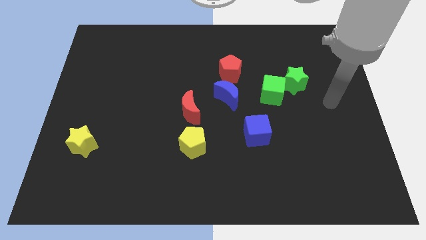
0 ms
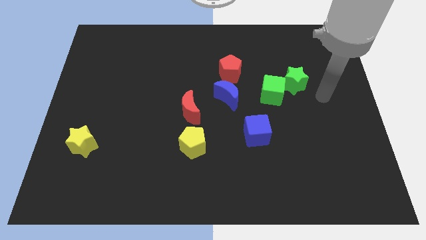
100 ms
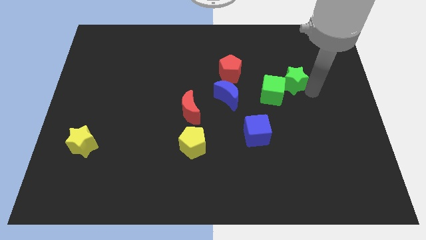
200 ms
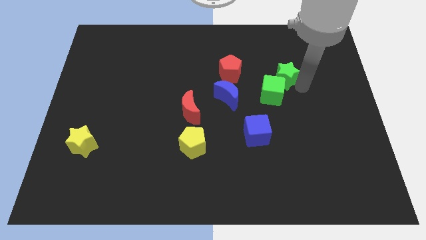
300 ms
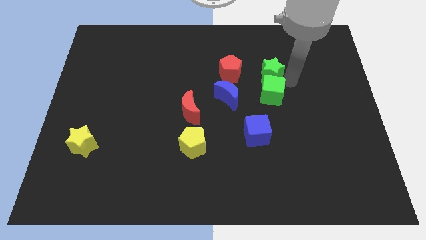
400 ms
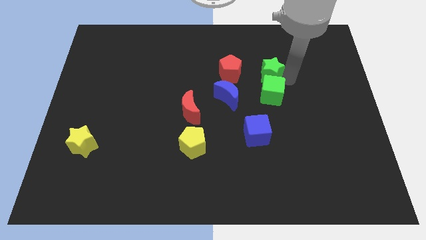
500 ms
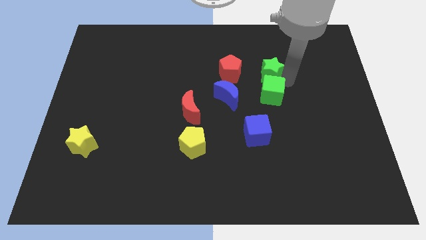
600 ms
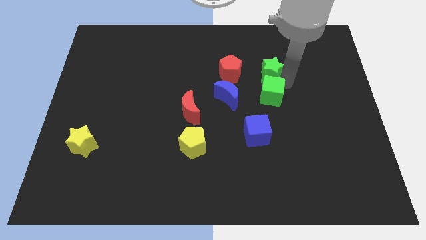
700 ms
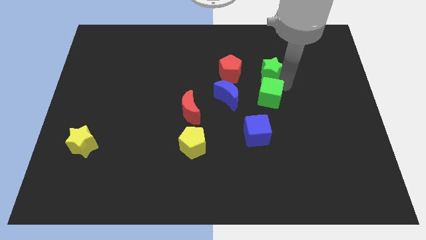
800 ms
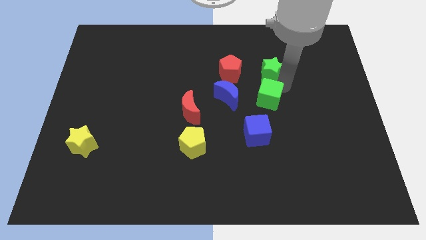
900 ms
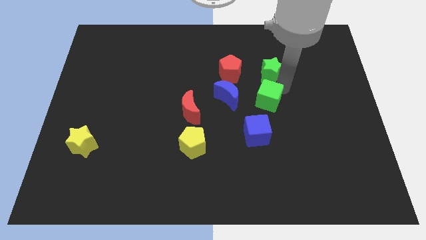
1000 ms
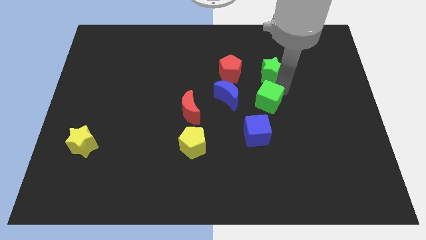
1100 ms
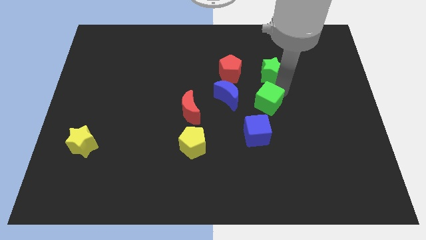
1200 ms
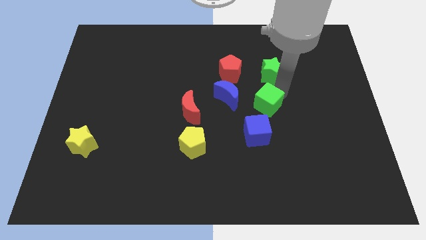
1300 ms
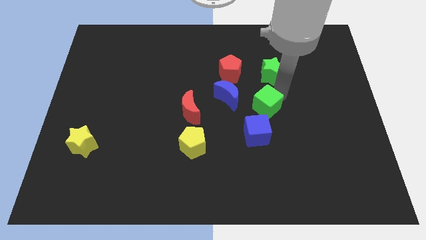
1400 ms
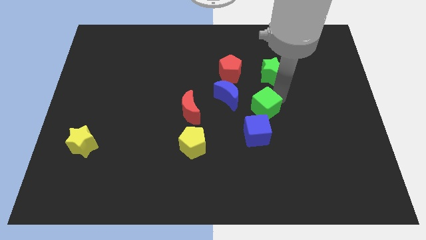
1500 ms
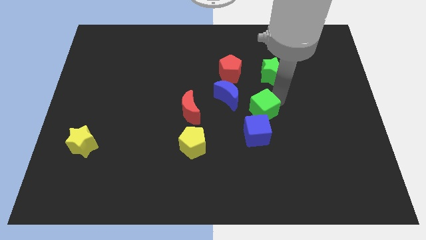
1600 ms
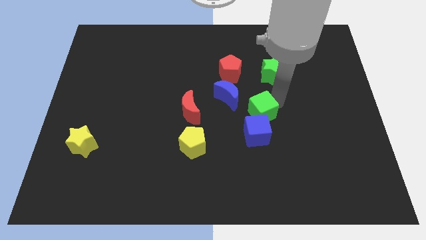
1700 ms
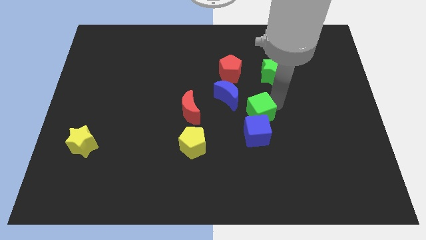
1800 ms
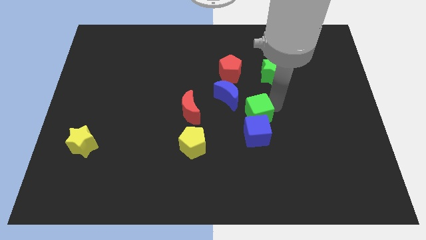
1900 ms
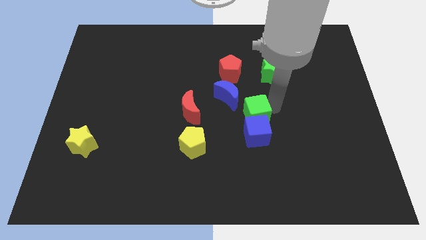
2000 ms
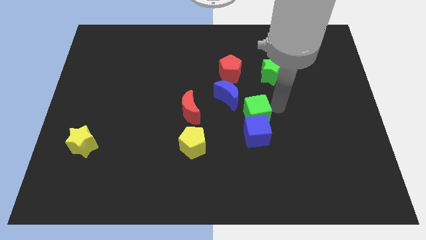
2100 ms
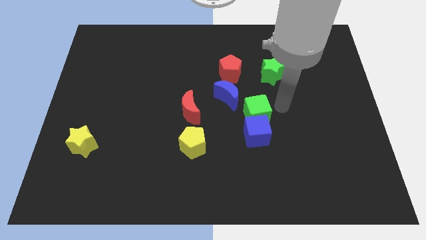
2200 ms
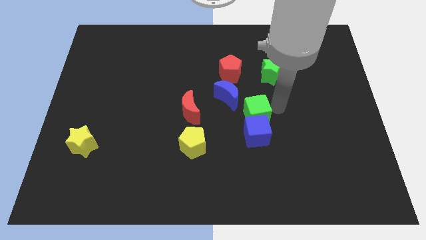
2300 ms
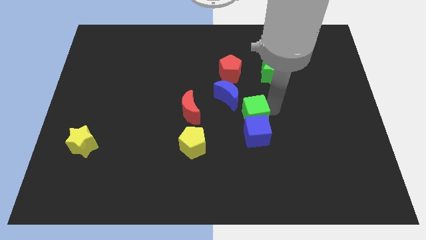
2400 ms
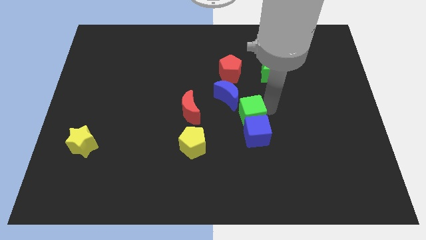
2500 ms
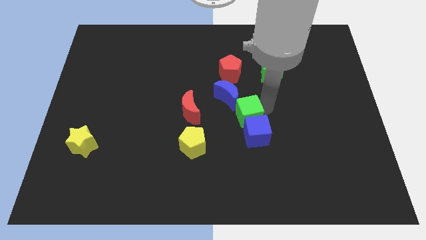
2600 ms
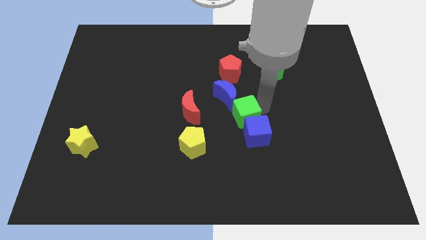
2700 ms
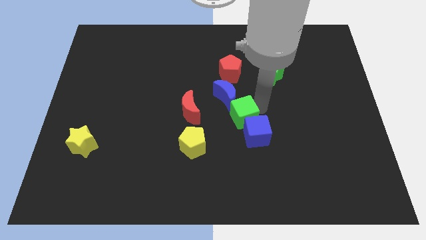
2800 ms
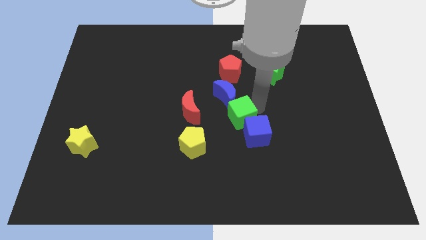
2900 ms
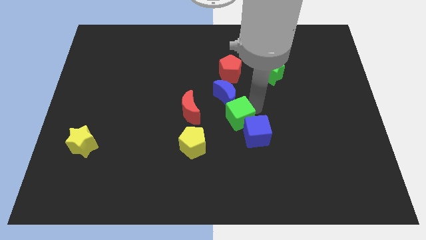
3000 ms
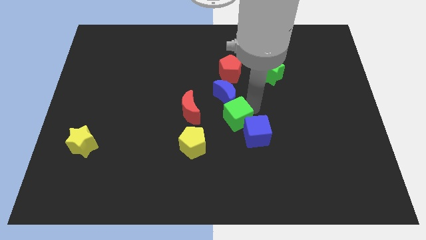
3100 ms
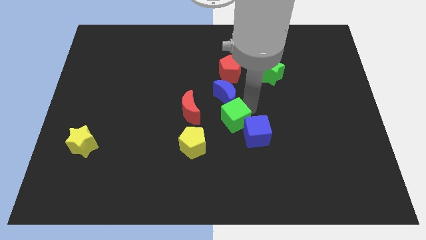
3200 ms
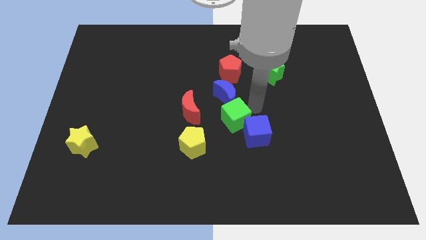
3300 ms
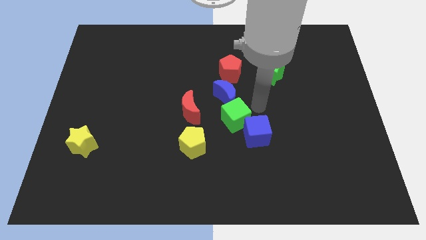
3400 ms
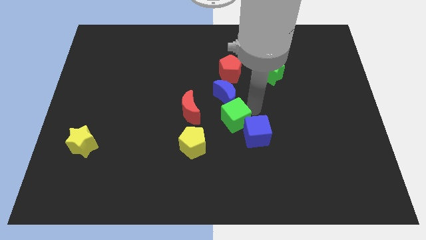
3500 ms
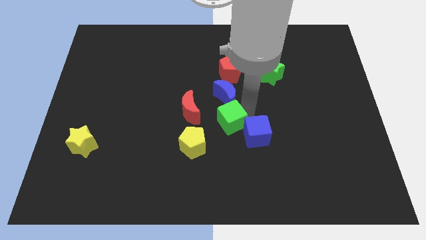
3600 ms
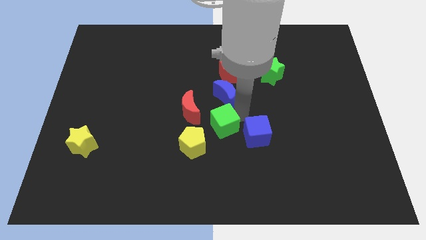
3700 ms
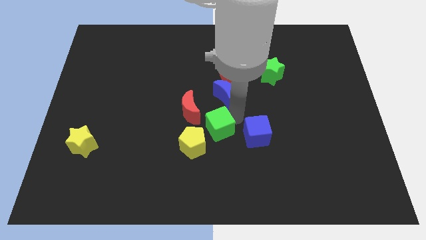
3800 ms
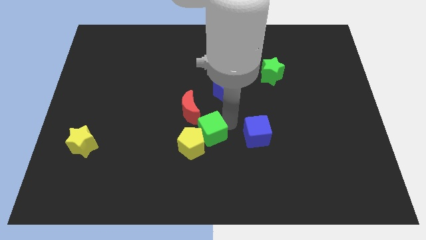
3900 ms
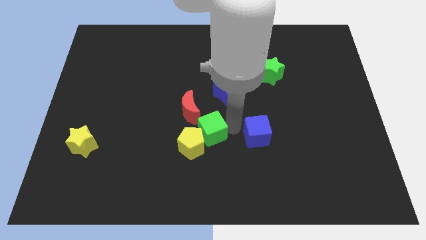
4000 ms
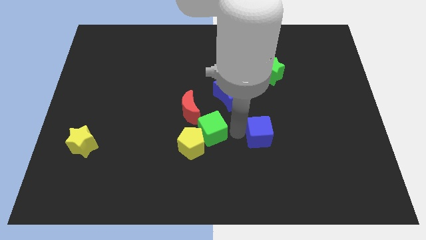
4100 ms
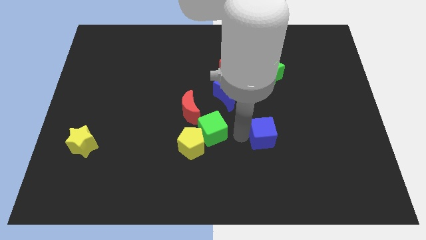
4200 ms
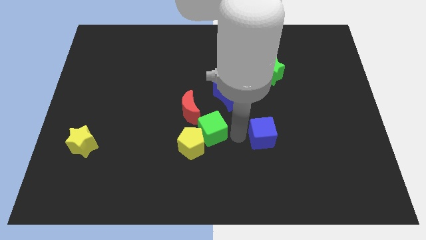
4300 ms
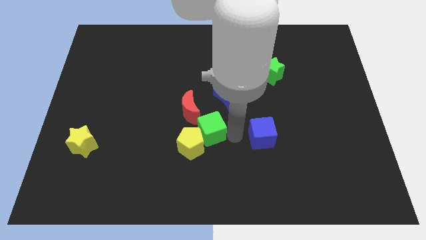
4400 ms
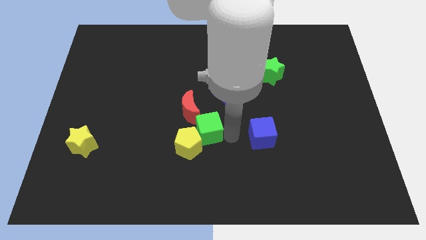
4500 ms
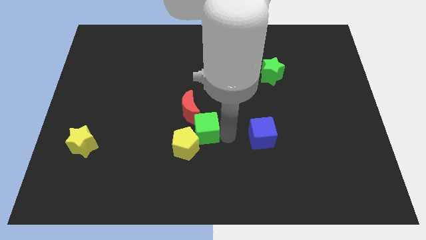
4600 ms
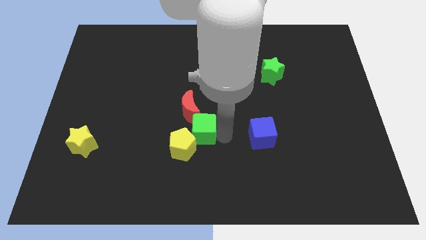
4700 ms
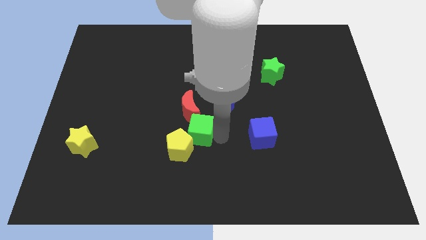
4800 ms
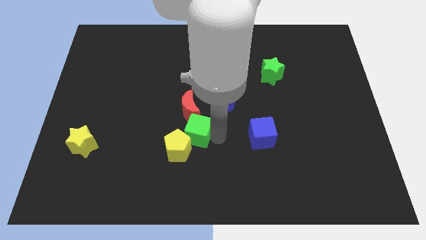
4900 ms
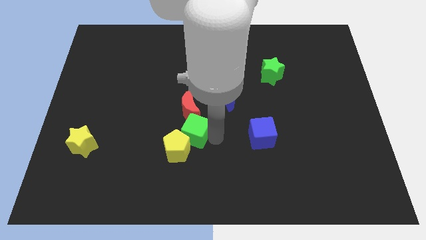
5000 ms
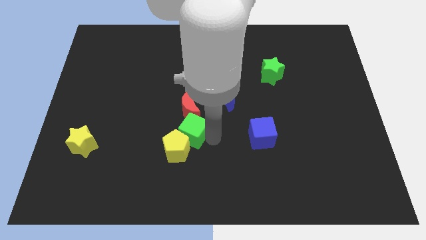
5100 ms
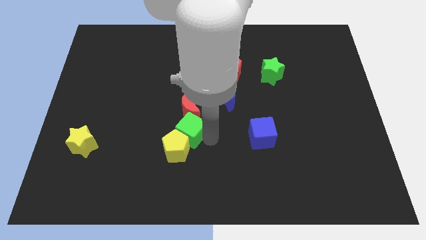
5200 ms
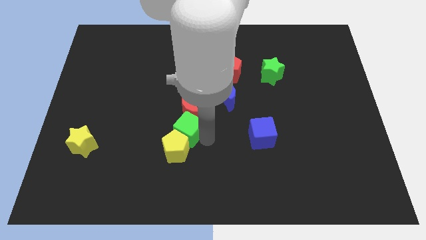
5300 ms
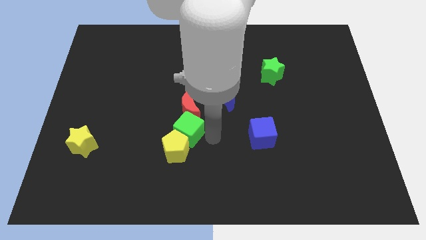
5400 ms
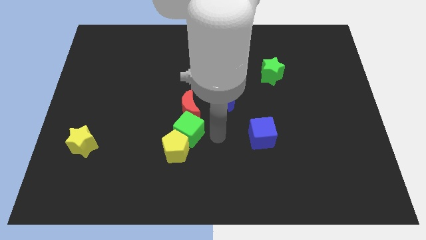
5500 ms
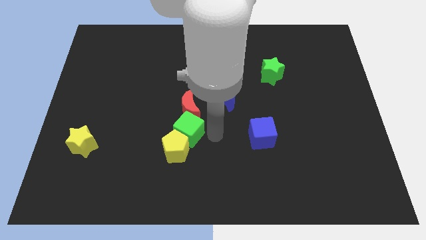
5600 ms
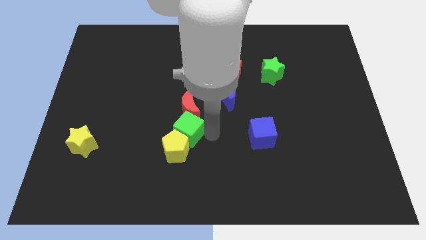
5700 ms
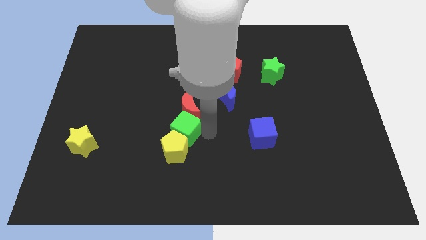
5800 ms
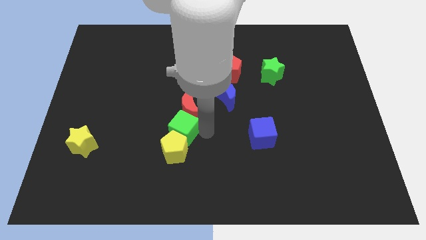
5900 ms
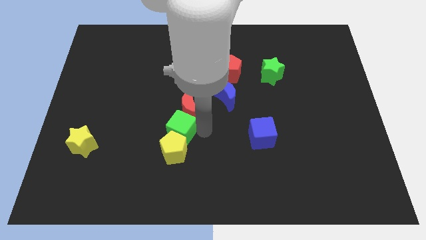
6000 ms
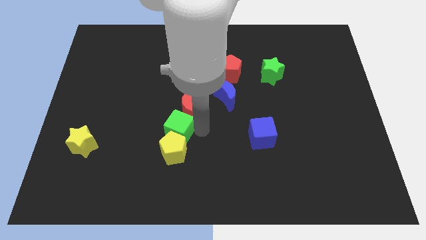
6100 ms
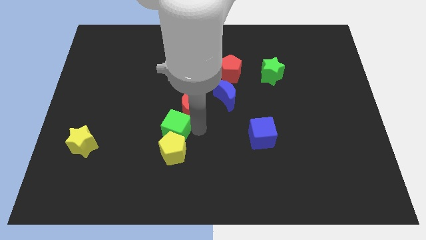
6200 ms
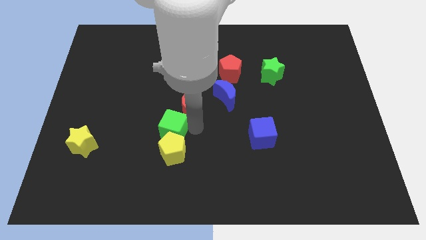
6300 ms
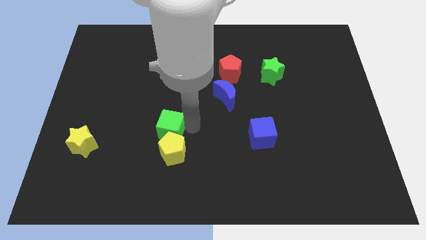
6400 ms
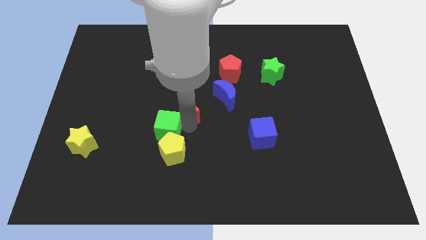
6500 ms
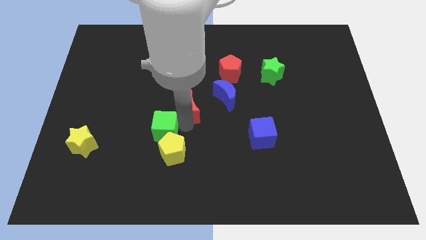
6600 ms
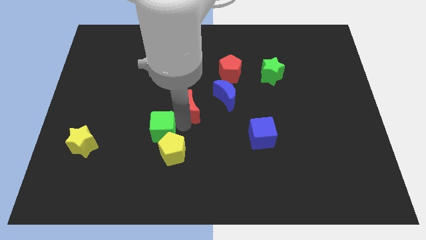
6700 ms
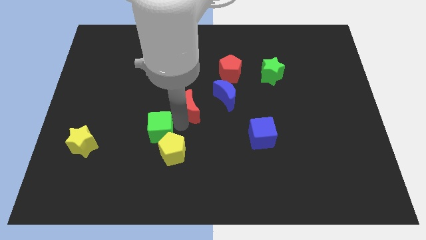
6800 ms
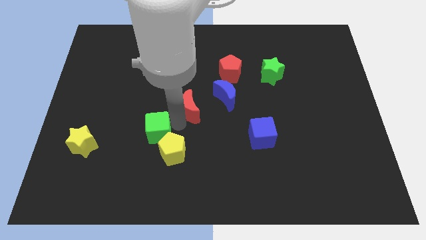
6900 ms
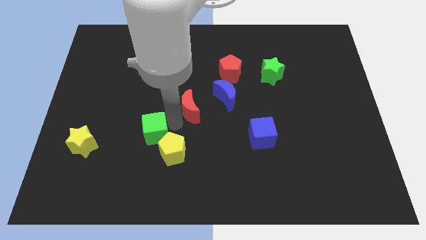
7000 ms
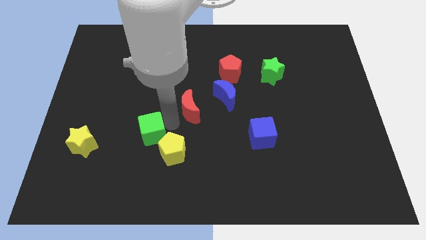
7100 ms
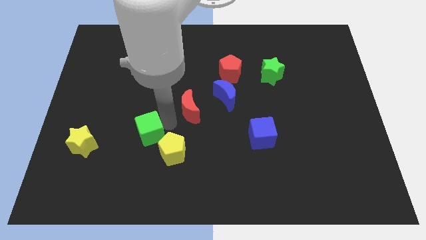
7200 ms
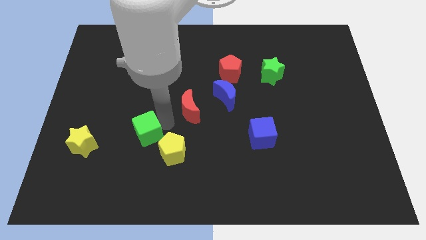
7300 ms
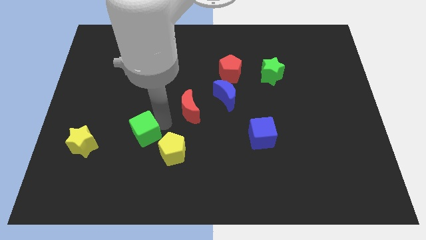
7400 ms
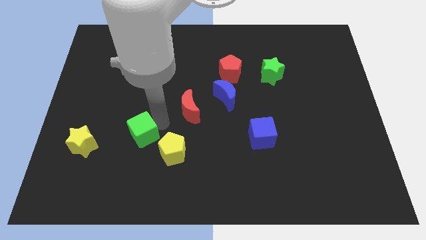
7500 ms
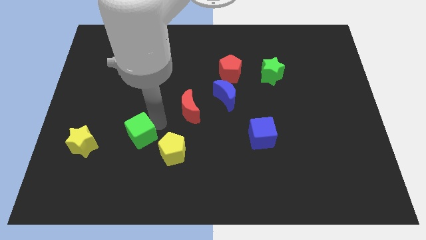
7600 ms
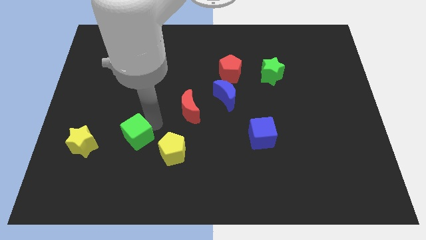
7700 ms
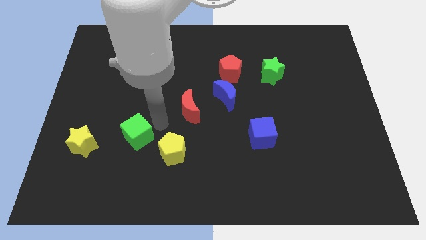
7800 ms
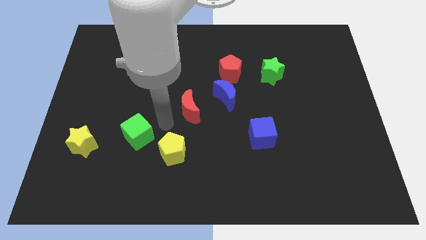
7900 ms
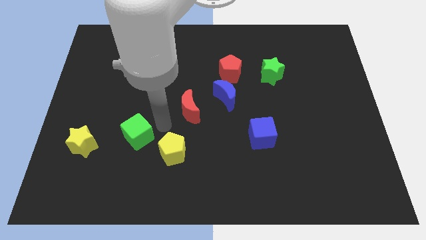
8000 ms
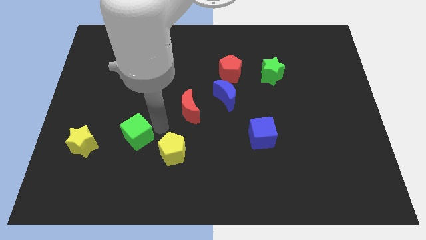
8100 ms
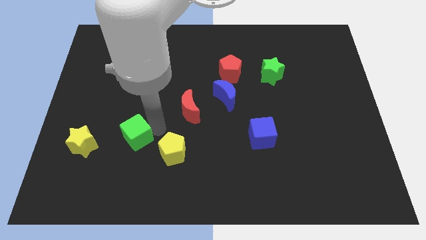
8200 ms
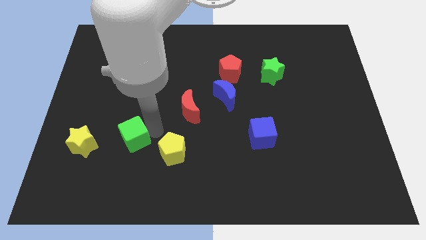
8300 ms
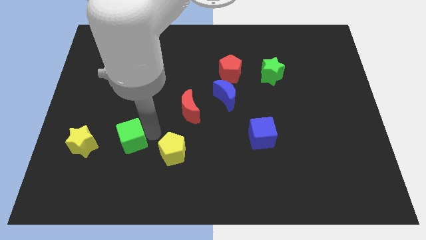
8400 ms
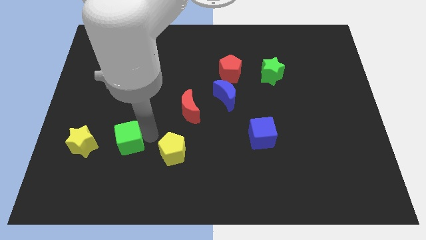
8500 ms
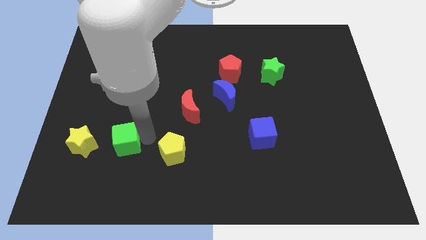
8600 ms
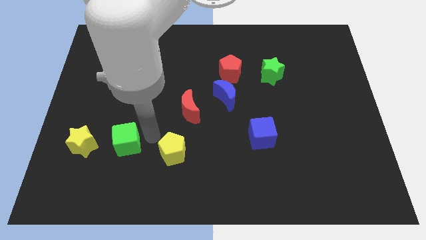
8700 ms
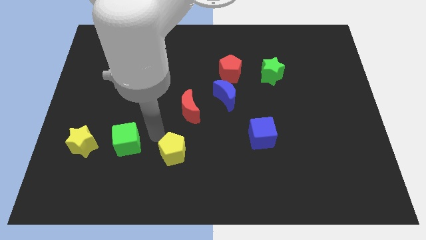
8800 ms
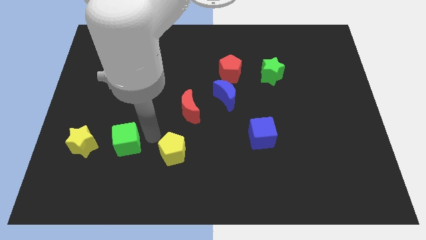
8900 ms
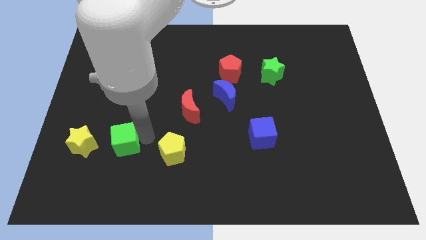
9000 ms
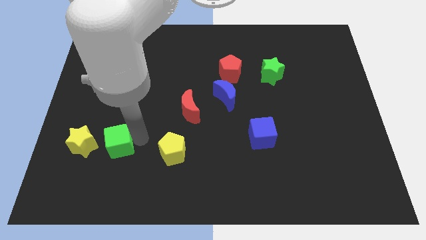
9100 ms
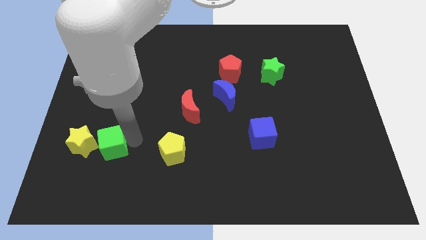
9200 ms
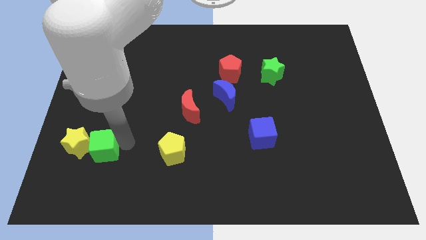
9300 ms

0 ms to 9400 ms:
slide the green cube close to the yellow star
